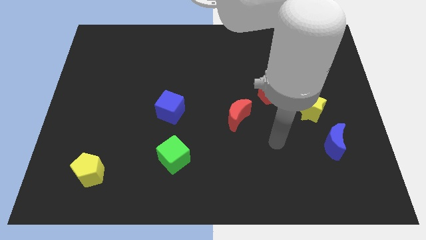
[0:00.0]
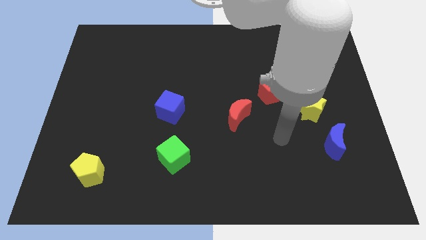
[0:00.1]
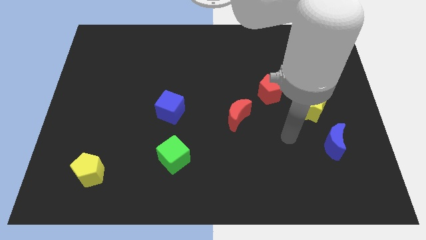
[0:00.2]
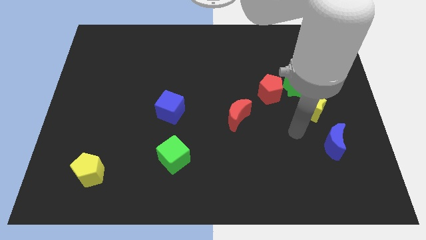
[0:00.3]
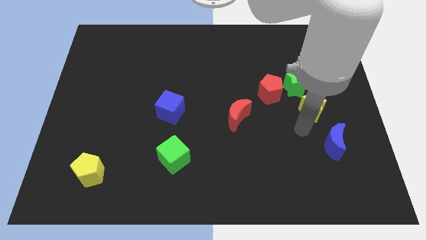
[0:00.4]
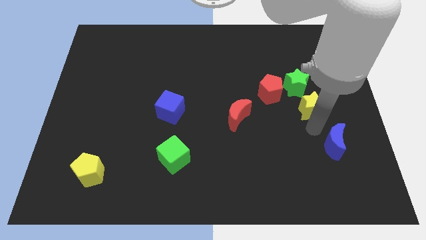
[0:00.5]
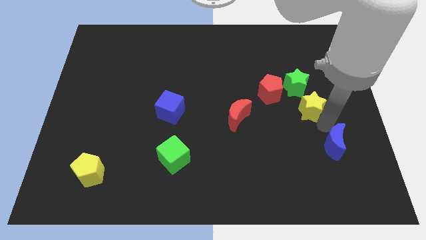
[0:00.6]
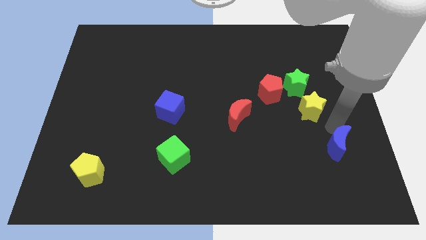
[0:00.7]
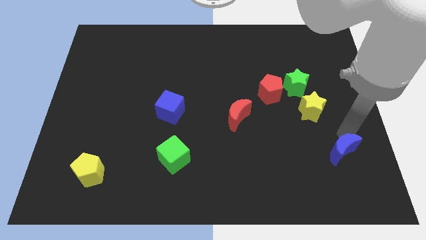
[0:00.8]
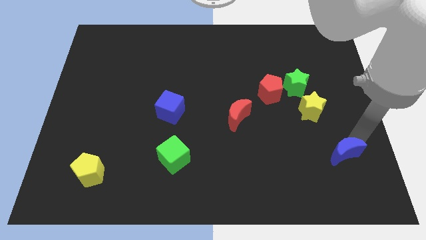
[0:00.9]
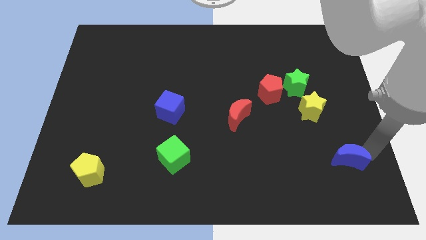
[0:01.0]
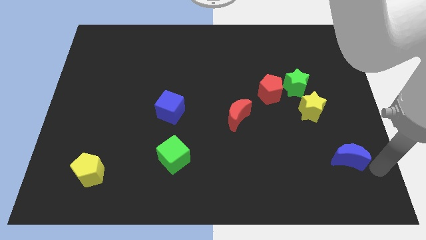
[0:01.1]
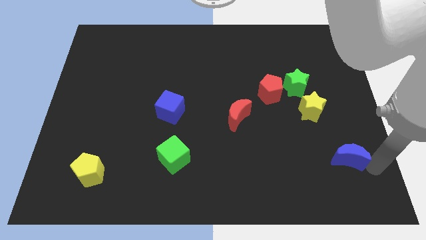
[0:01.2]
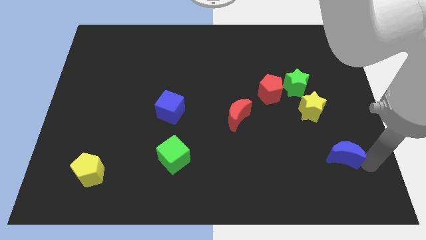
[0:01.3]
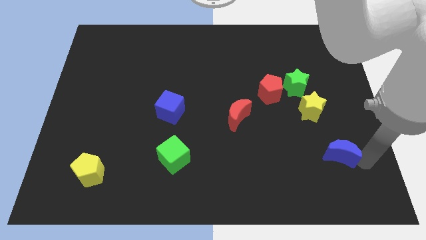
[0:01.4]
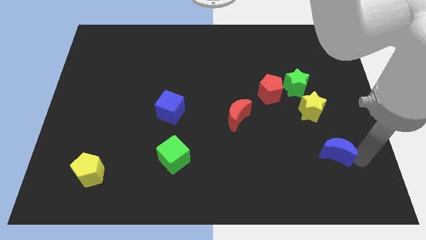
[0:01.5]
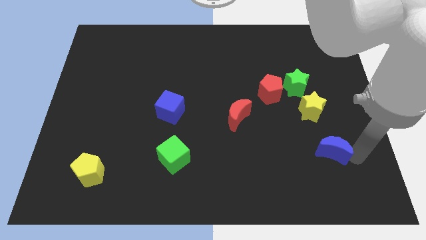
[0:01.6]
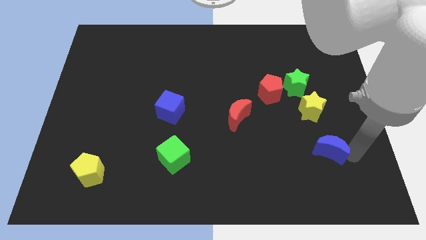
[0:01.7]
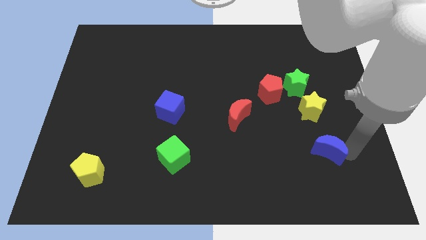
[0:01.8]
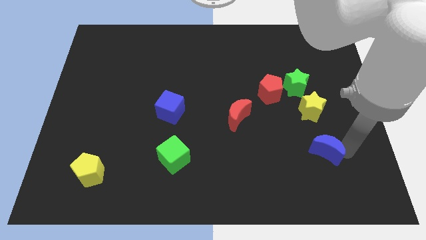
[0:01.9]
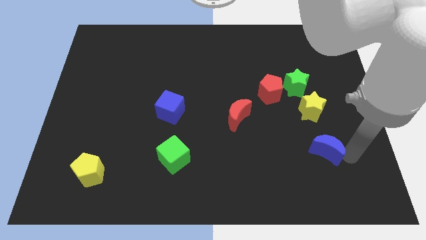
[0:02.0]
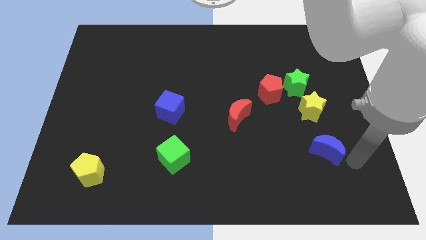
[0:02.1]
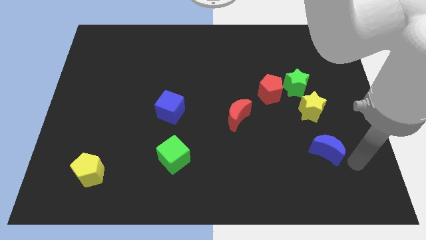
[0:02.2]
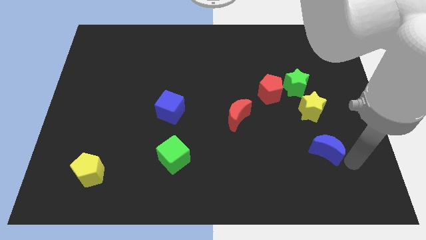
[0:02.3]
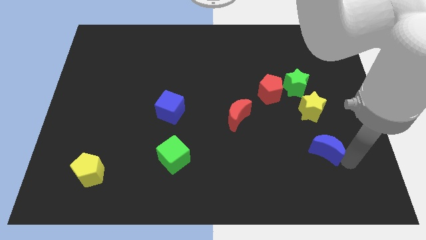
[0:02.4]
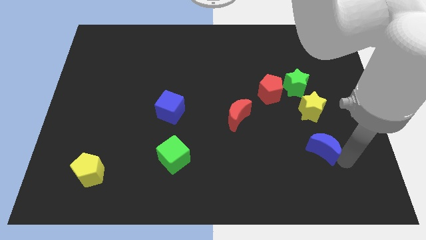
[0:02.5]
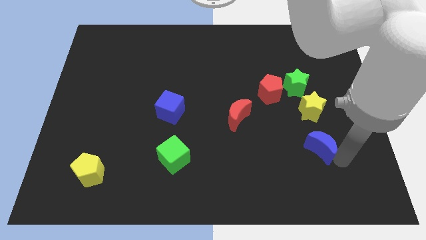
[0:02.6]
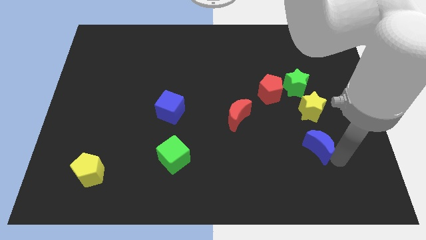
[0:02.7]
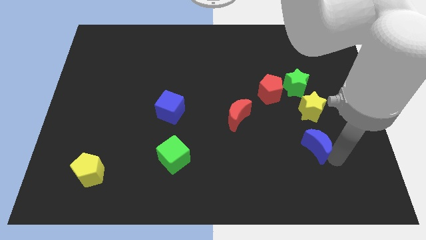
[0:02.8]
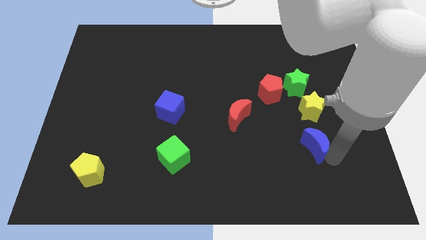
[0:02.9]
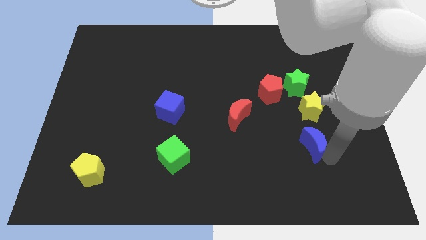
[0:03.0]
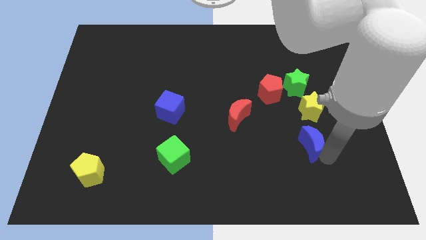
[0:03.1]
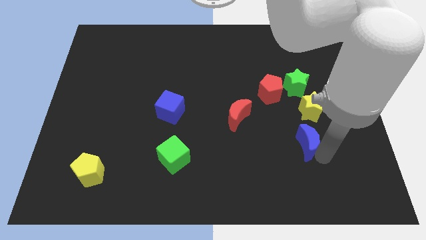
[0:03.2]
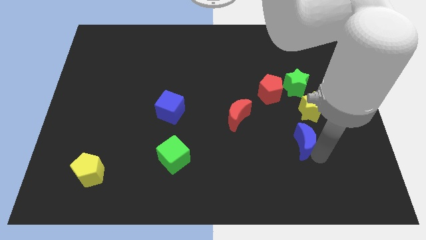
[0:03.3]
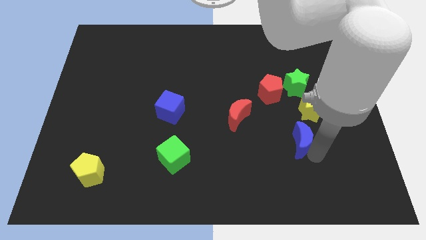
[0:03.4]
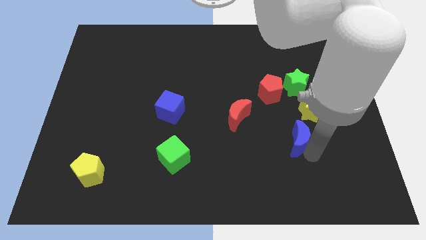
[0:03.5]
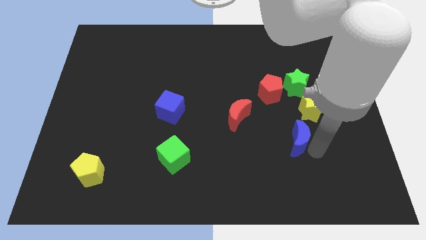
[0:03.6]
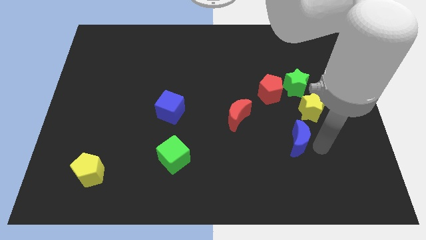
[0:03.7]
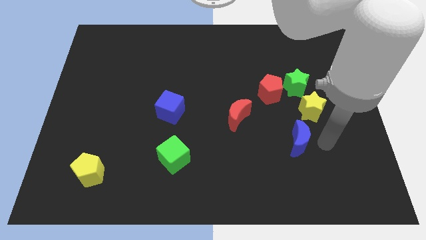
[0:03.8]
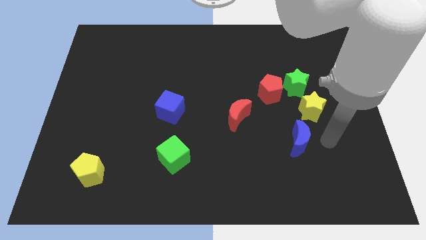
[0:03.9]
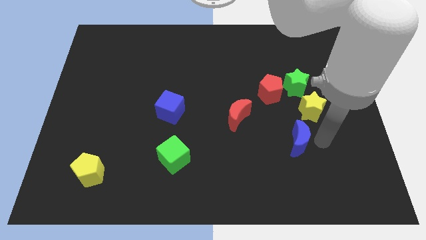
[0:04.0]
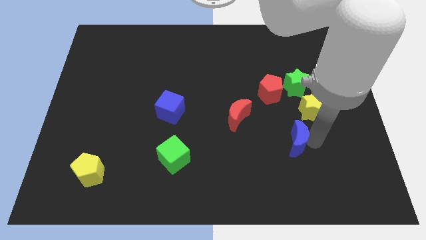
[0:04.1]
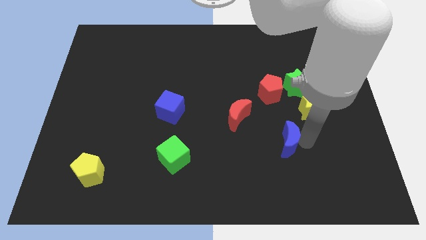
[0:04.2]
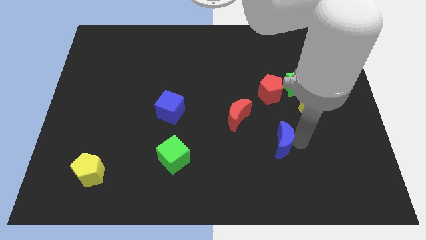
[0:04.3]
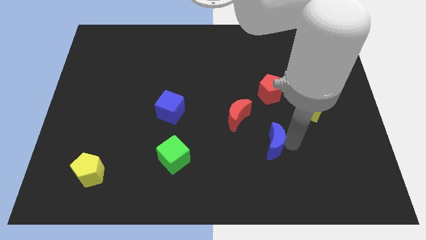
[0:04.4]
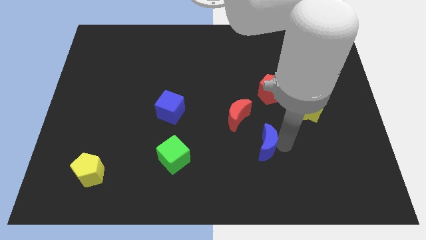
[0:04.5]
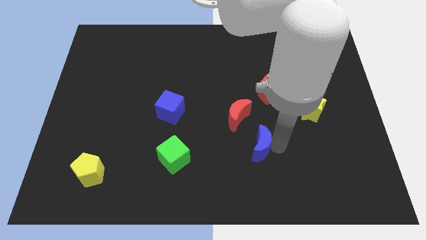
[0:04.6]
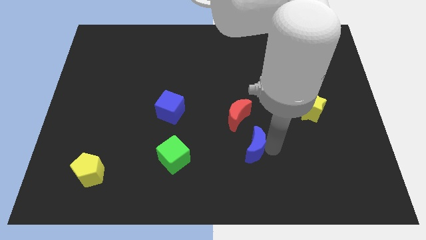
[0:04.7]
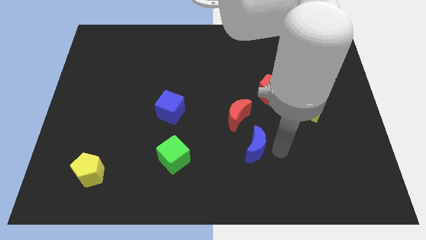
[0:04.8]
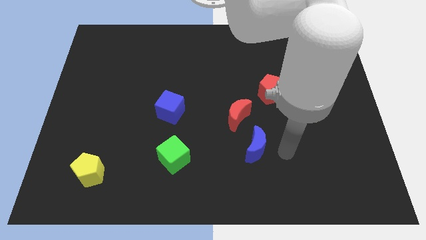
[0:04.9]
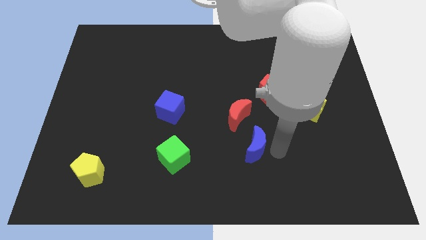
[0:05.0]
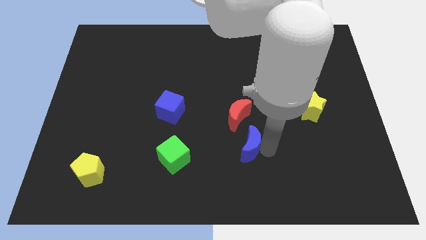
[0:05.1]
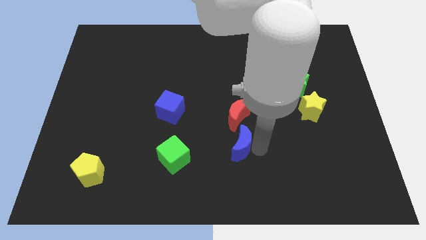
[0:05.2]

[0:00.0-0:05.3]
slide the blue moon to the left

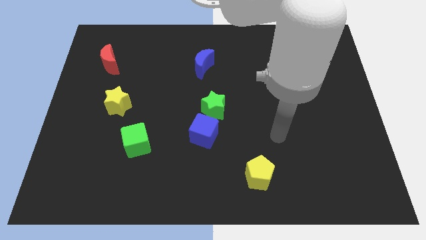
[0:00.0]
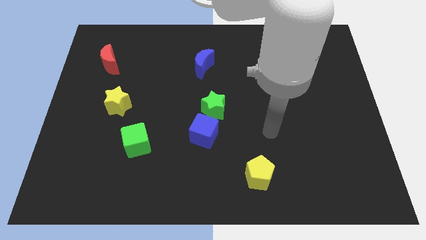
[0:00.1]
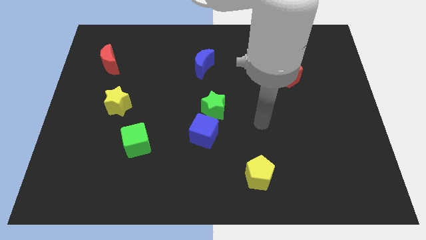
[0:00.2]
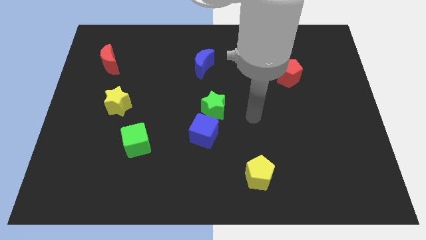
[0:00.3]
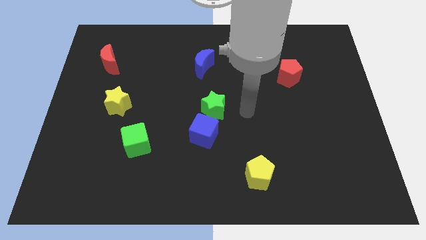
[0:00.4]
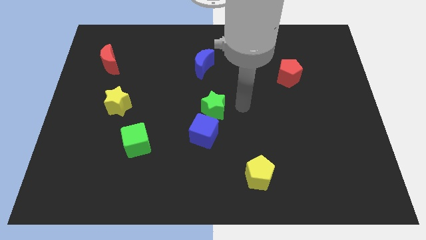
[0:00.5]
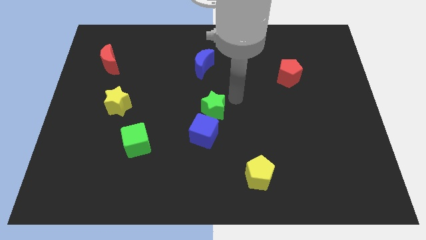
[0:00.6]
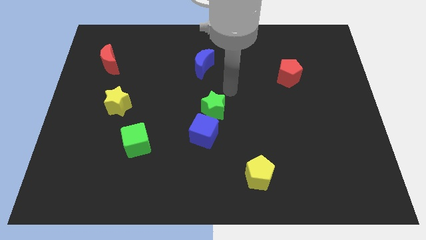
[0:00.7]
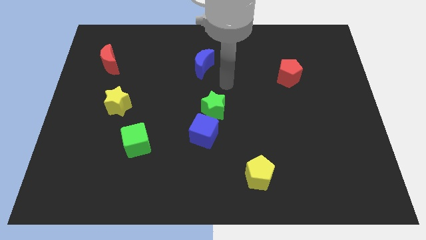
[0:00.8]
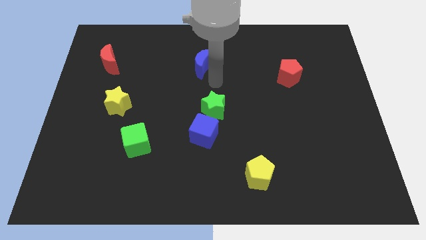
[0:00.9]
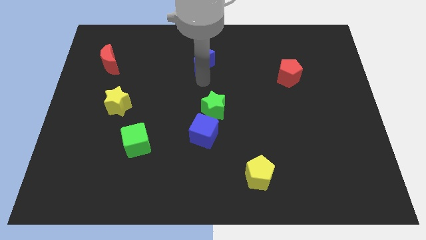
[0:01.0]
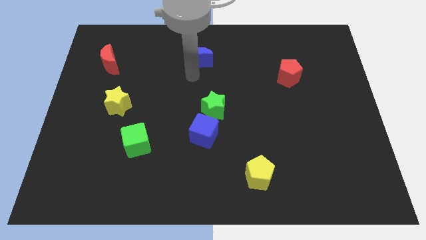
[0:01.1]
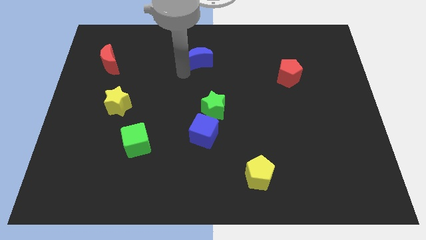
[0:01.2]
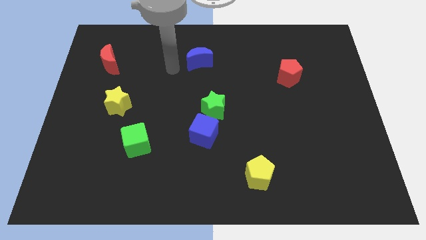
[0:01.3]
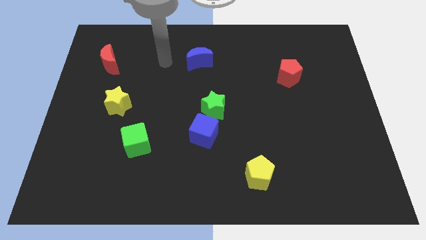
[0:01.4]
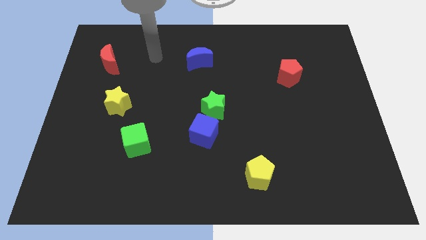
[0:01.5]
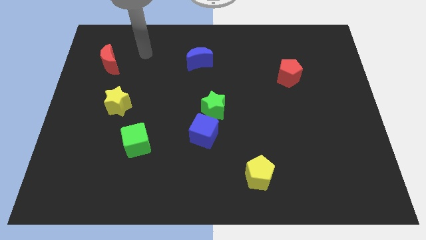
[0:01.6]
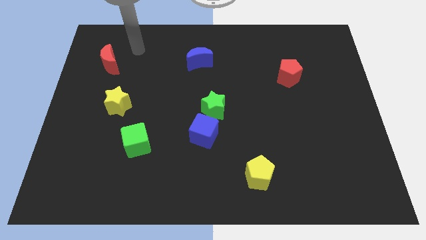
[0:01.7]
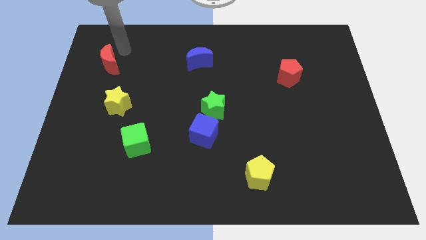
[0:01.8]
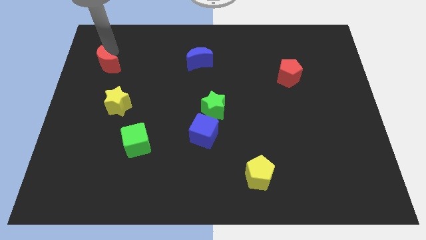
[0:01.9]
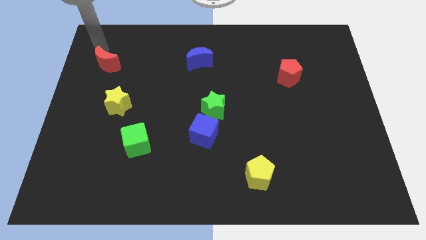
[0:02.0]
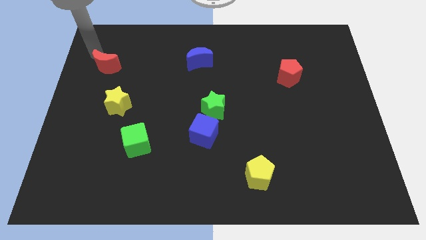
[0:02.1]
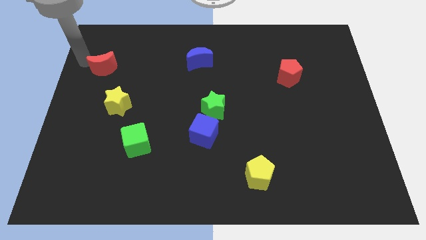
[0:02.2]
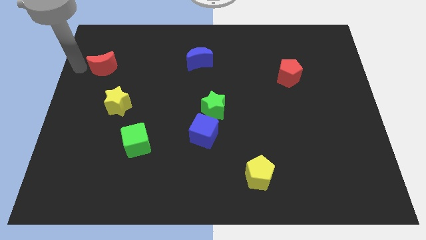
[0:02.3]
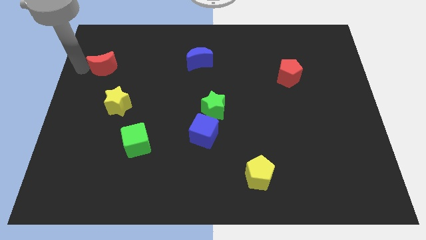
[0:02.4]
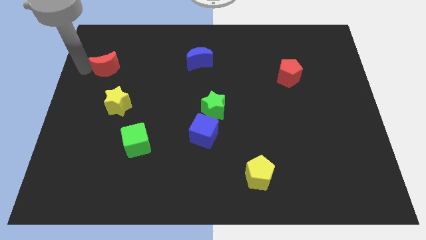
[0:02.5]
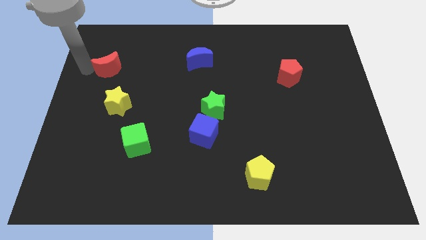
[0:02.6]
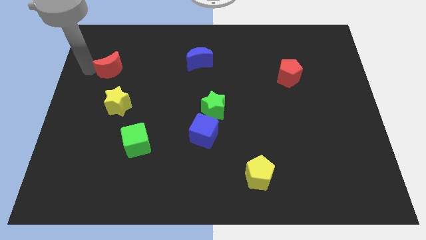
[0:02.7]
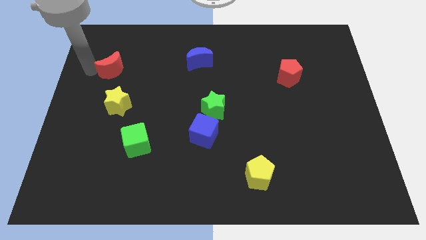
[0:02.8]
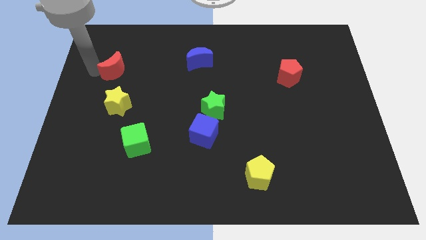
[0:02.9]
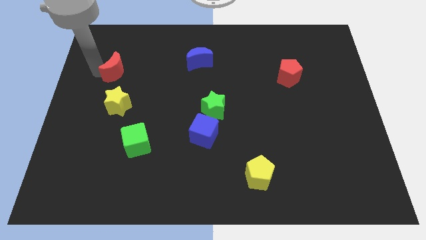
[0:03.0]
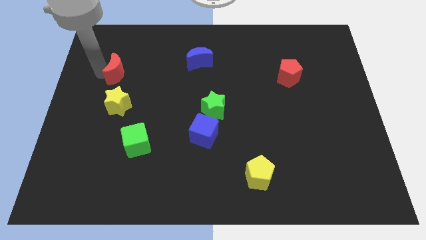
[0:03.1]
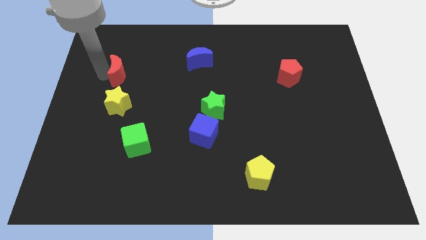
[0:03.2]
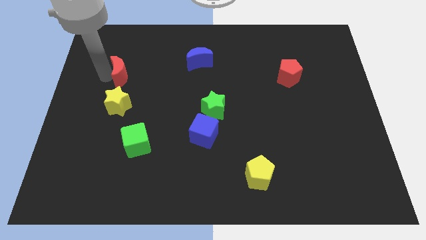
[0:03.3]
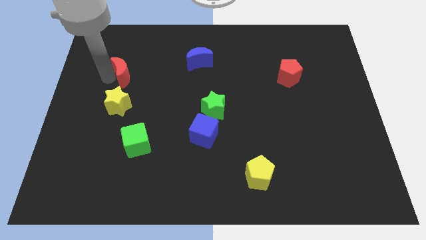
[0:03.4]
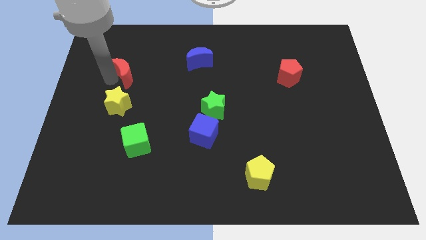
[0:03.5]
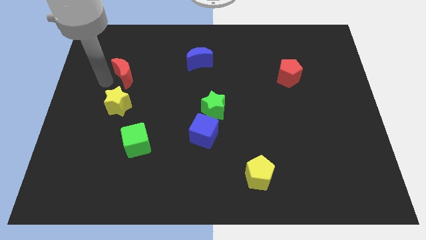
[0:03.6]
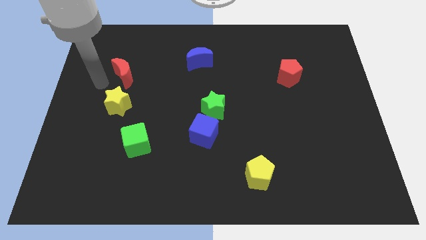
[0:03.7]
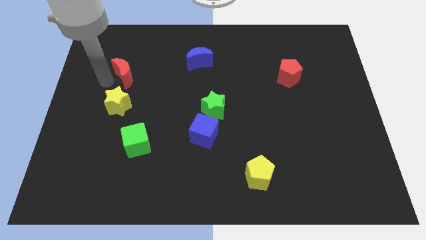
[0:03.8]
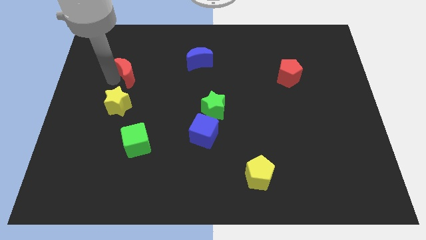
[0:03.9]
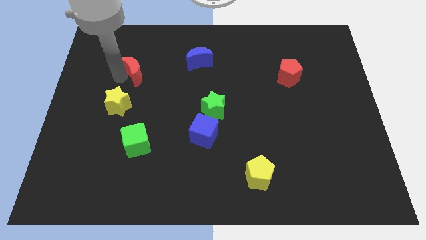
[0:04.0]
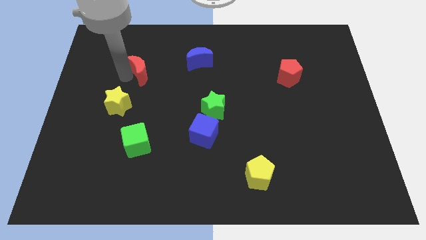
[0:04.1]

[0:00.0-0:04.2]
slide the red moon a little right
